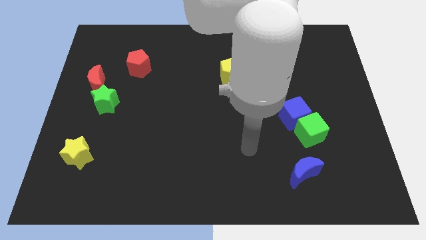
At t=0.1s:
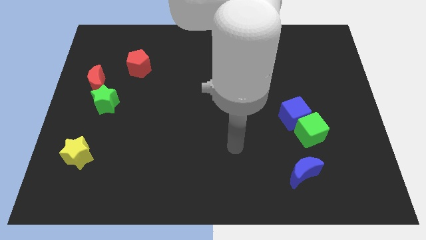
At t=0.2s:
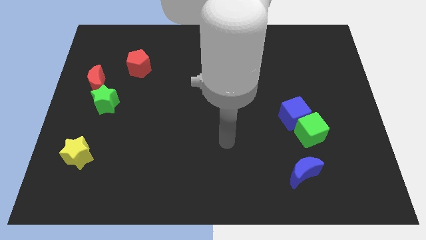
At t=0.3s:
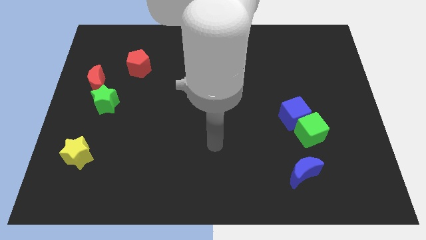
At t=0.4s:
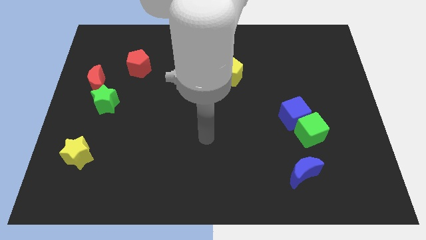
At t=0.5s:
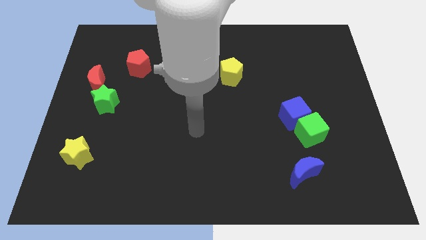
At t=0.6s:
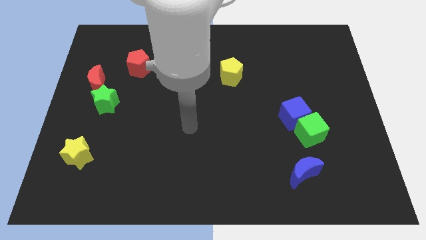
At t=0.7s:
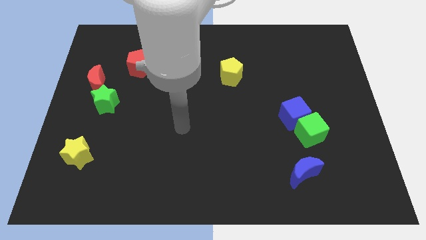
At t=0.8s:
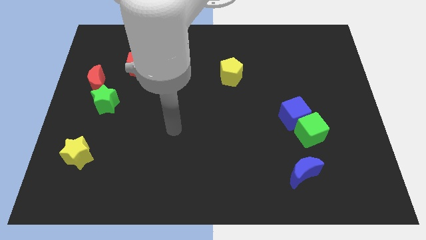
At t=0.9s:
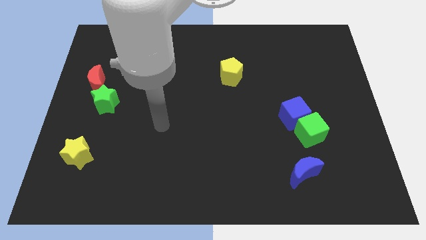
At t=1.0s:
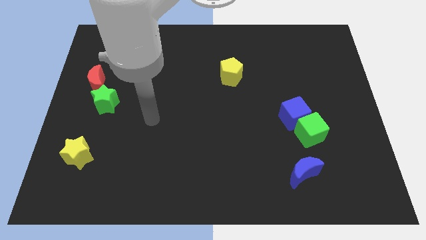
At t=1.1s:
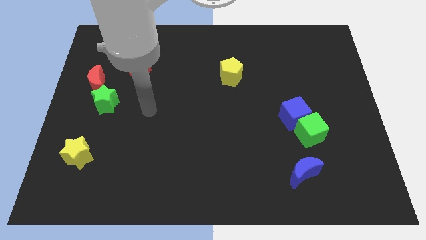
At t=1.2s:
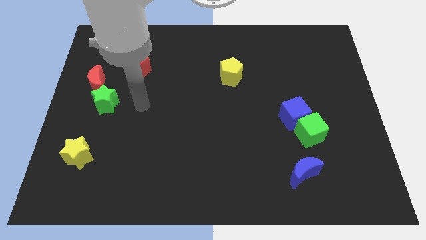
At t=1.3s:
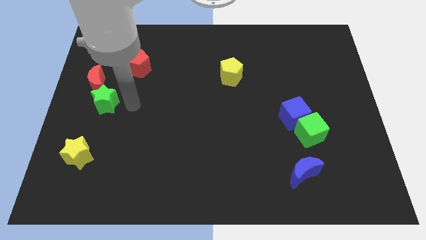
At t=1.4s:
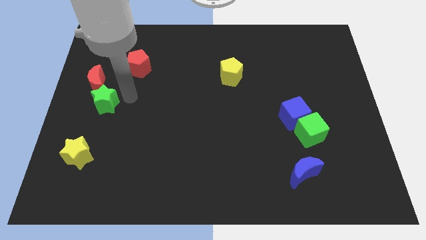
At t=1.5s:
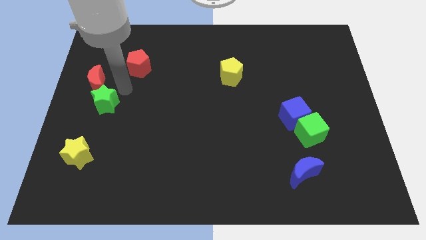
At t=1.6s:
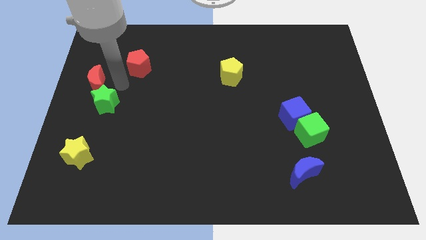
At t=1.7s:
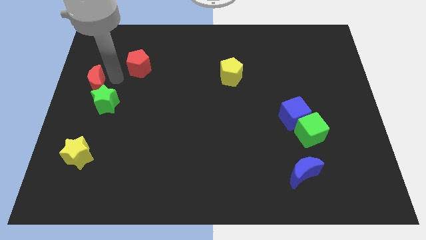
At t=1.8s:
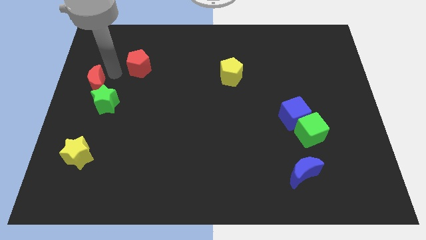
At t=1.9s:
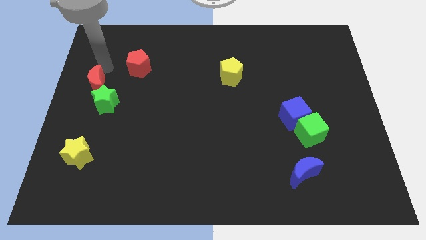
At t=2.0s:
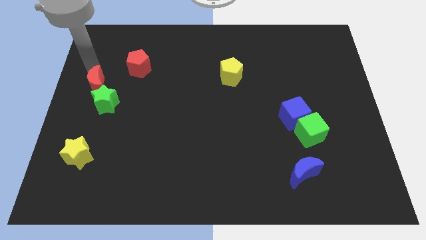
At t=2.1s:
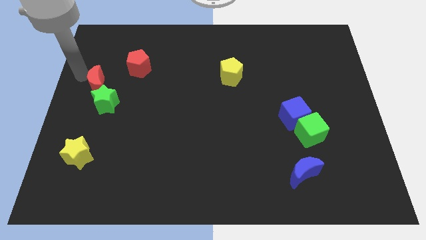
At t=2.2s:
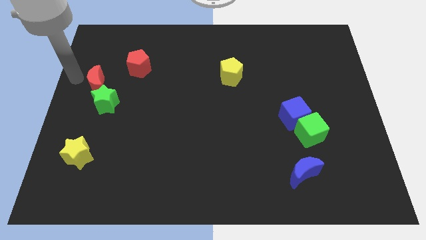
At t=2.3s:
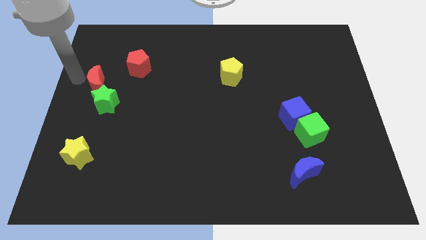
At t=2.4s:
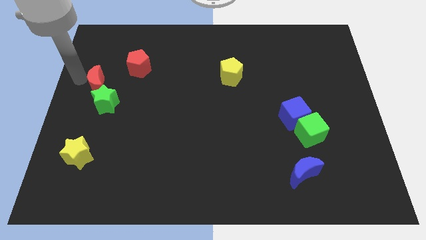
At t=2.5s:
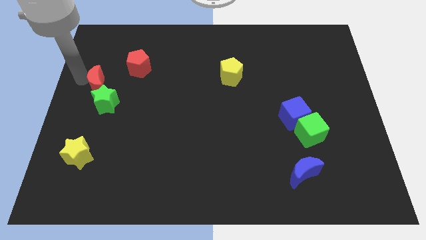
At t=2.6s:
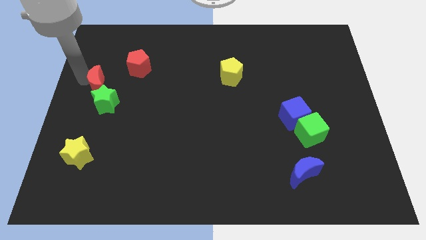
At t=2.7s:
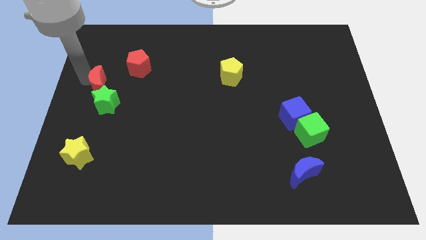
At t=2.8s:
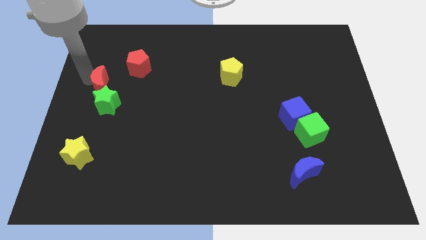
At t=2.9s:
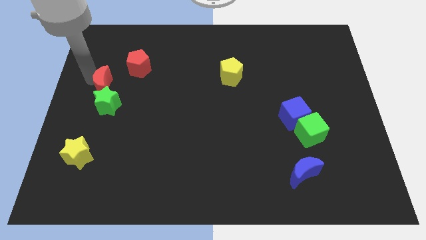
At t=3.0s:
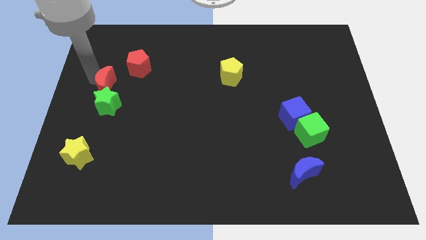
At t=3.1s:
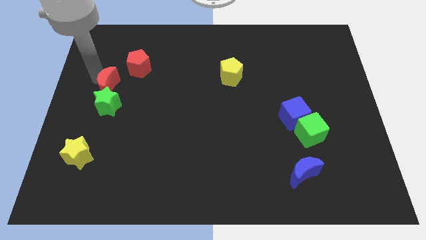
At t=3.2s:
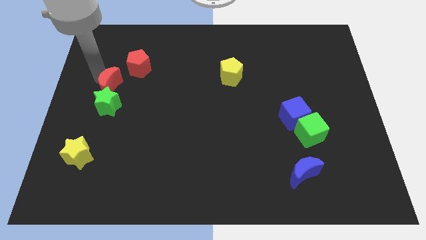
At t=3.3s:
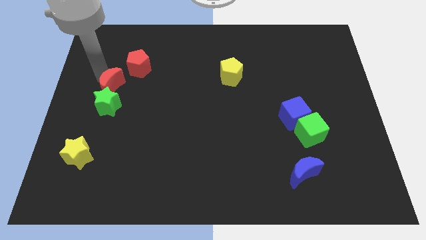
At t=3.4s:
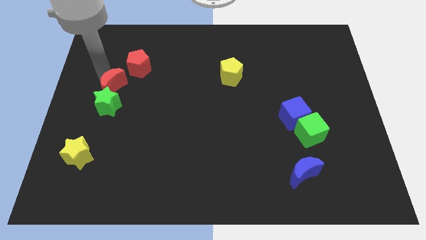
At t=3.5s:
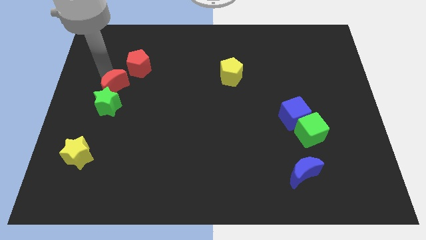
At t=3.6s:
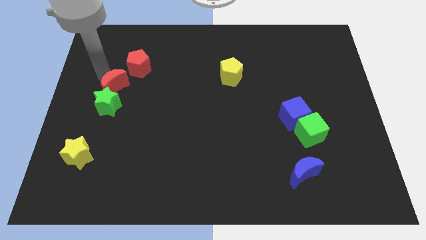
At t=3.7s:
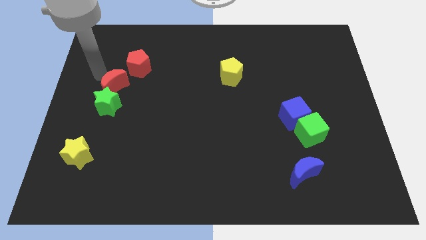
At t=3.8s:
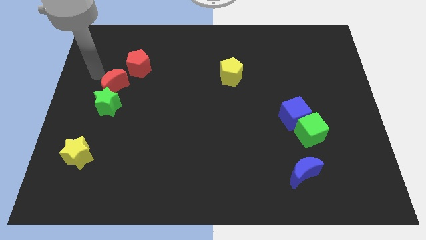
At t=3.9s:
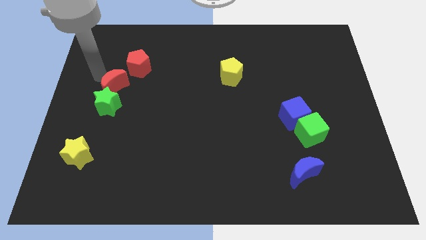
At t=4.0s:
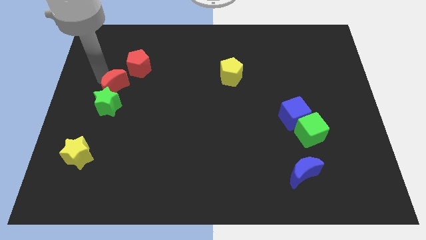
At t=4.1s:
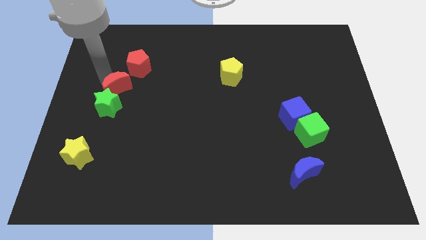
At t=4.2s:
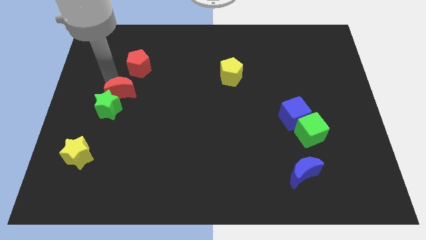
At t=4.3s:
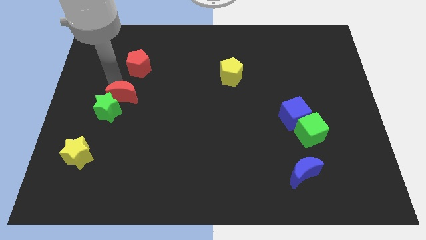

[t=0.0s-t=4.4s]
slide the red moon diagonally down and to the right a bit

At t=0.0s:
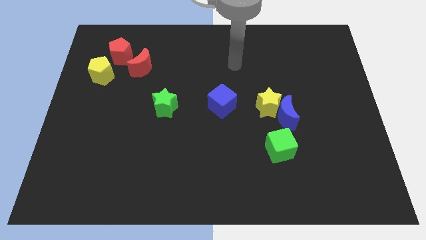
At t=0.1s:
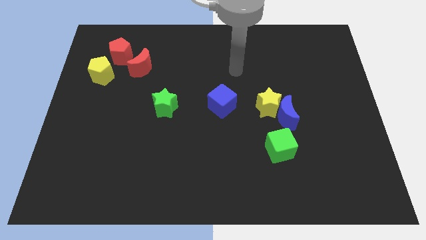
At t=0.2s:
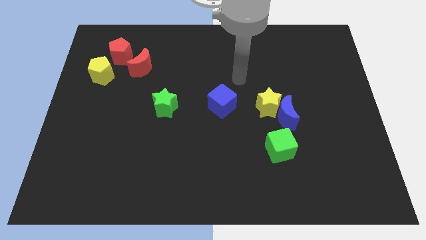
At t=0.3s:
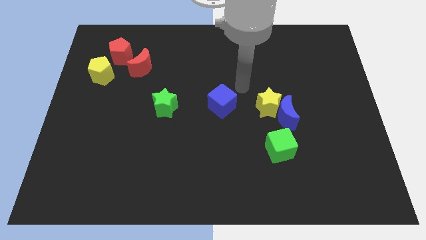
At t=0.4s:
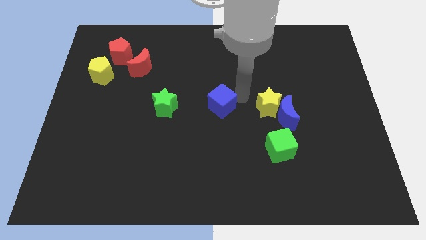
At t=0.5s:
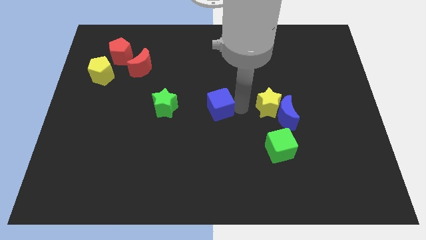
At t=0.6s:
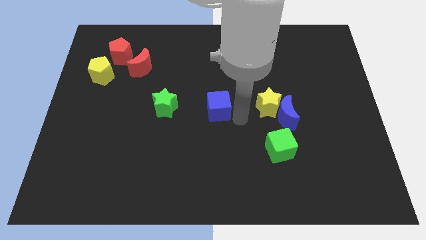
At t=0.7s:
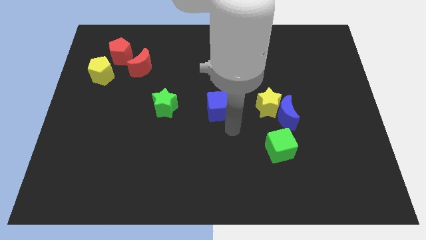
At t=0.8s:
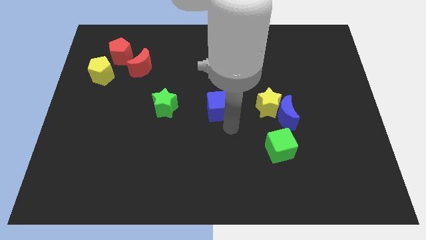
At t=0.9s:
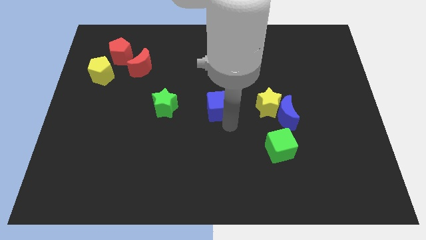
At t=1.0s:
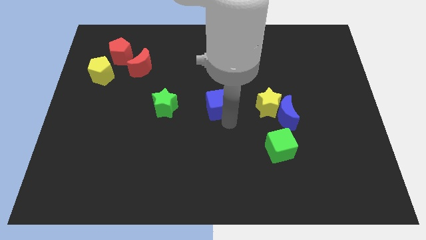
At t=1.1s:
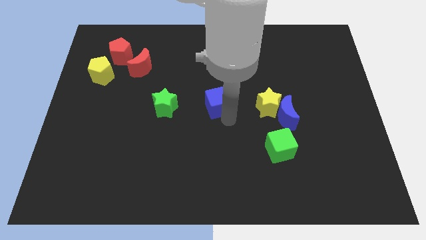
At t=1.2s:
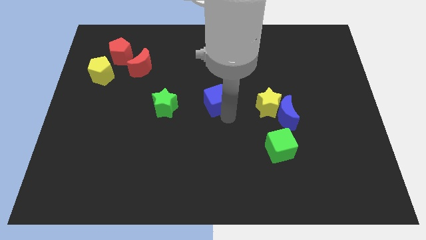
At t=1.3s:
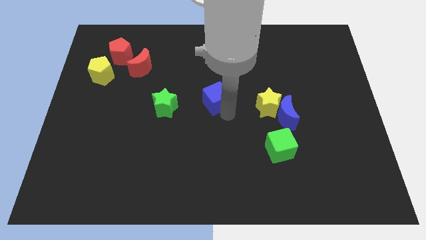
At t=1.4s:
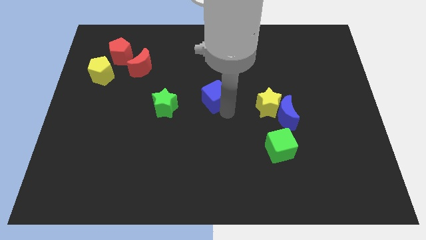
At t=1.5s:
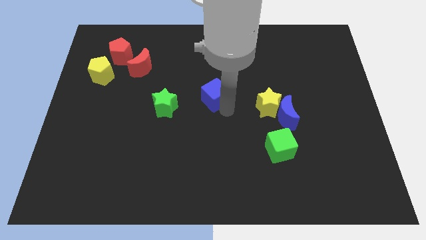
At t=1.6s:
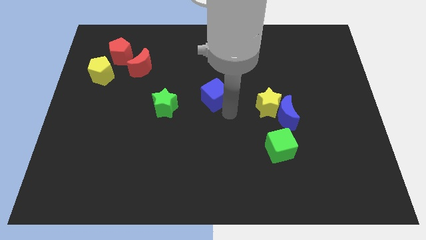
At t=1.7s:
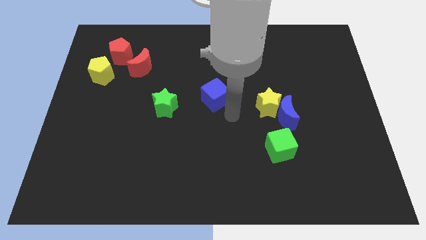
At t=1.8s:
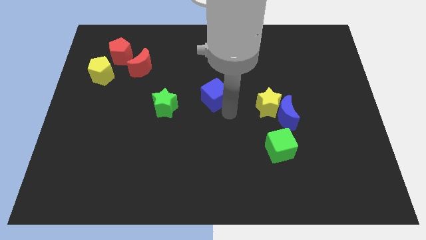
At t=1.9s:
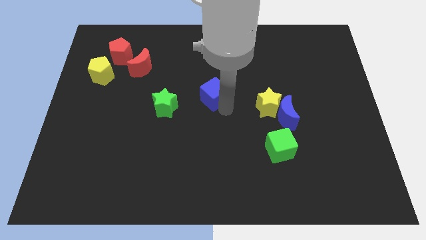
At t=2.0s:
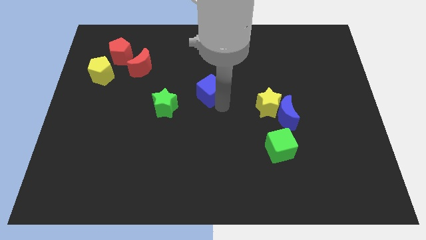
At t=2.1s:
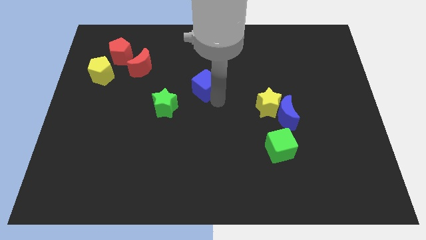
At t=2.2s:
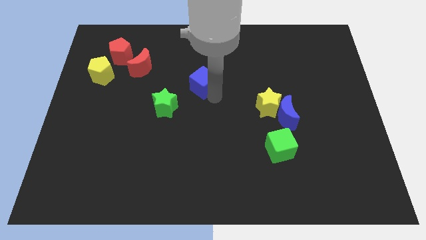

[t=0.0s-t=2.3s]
push the blue cube up and then left slightly

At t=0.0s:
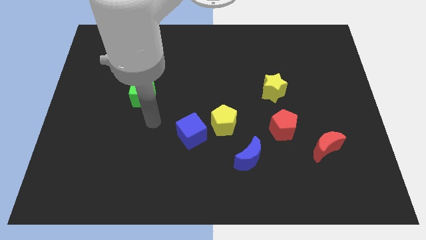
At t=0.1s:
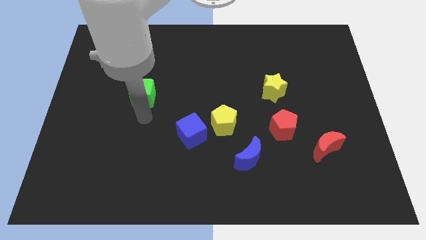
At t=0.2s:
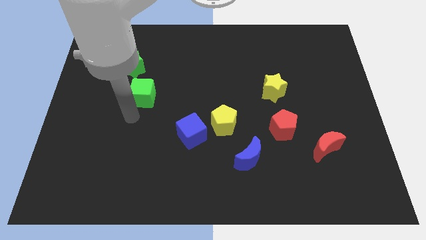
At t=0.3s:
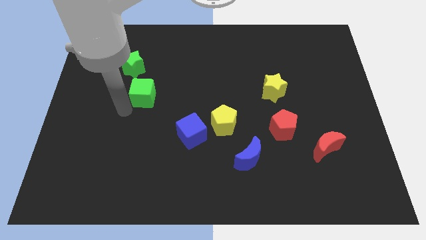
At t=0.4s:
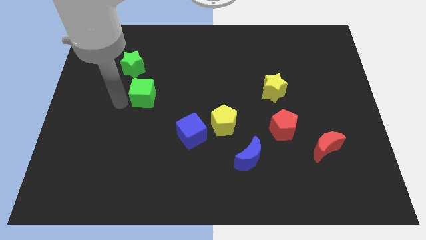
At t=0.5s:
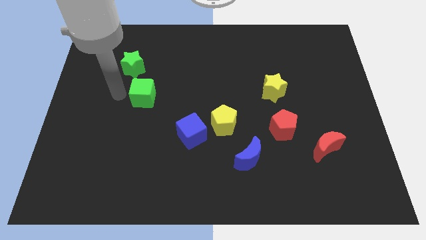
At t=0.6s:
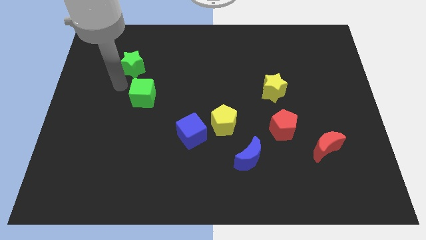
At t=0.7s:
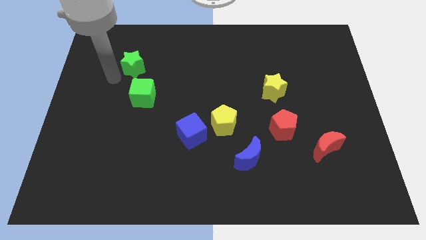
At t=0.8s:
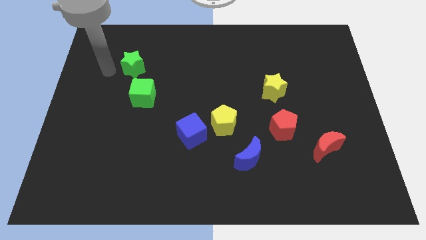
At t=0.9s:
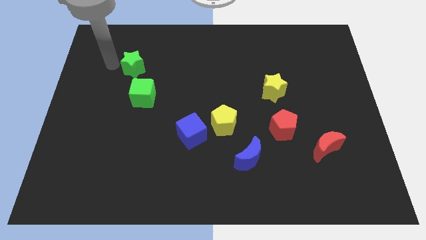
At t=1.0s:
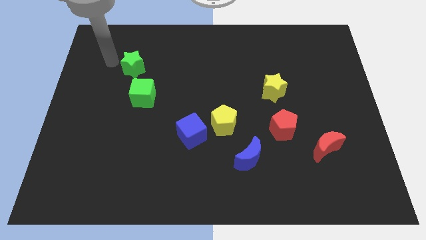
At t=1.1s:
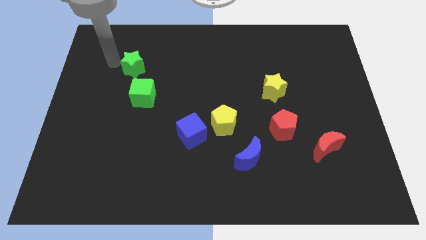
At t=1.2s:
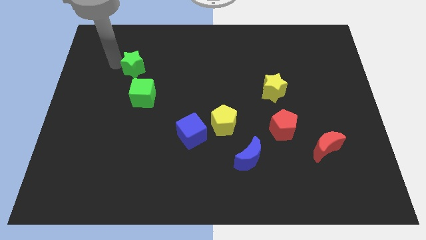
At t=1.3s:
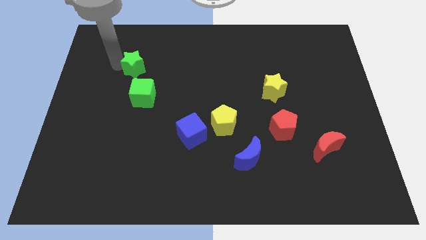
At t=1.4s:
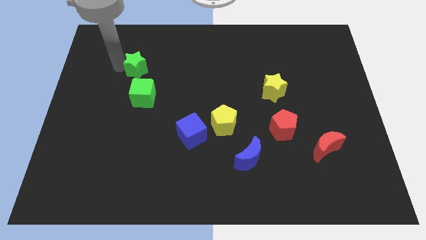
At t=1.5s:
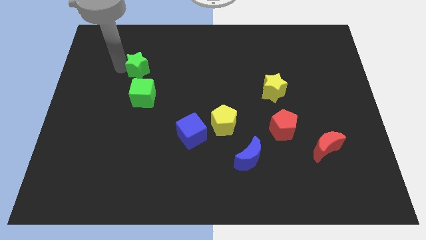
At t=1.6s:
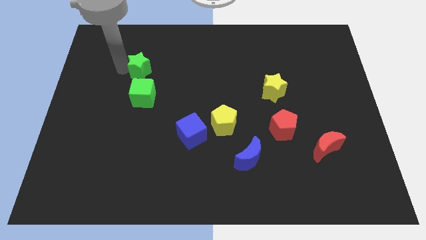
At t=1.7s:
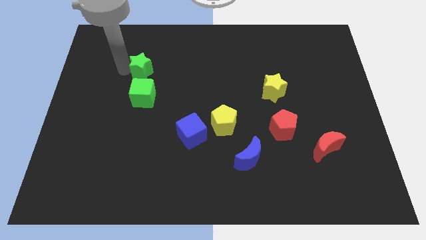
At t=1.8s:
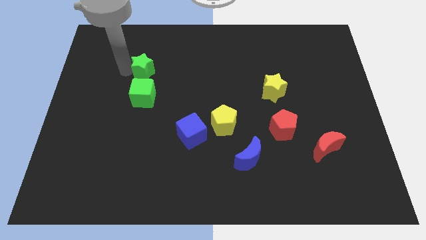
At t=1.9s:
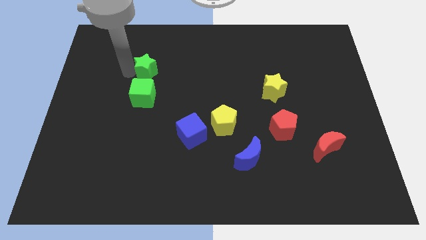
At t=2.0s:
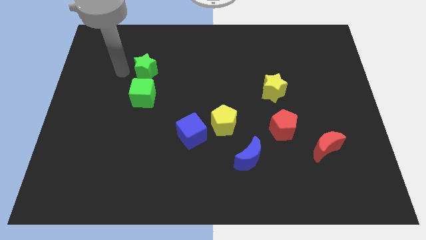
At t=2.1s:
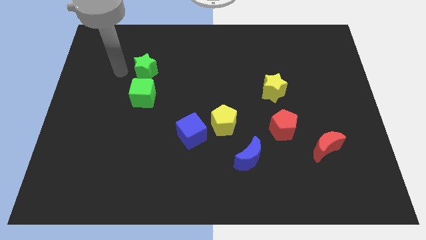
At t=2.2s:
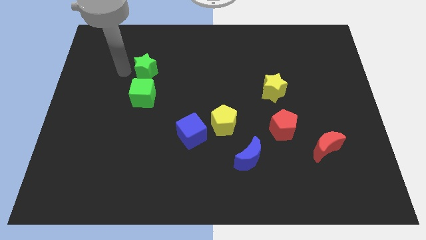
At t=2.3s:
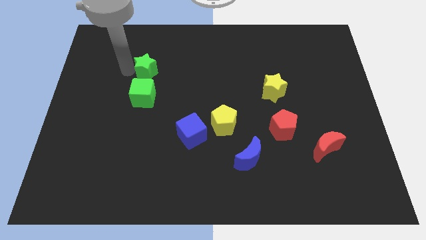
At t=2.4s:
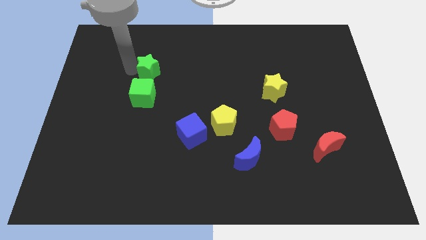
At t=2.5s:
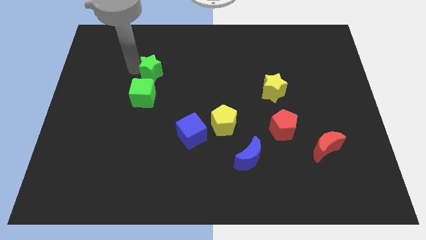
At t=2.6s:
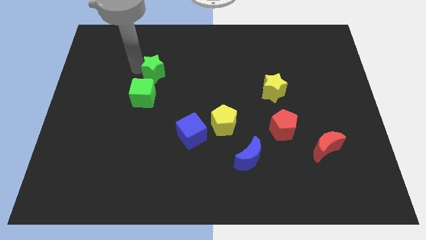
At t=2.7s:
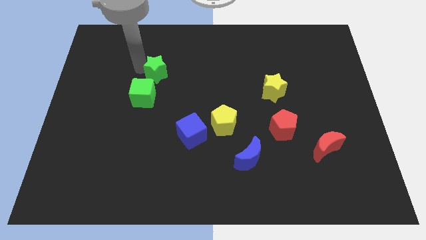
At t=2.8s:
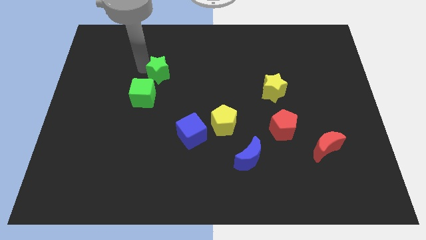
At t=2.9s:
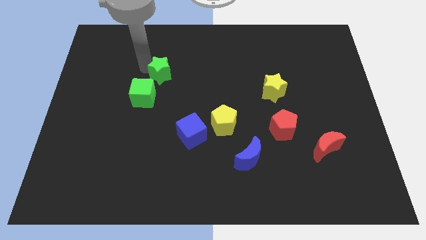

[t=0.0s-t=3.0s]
move the green star right a little bit
